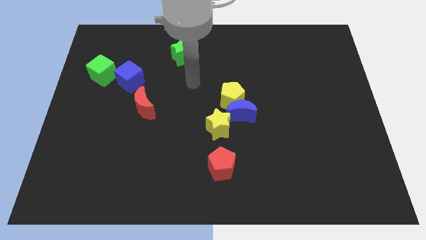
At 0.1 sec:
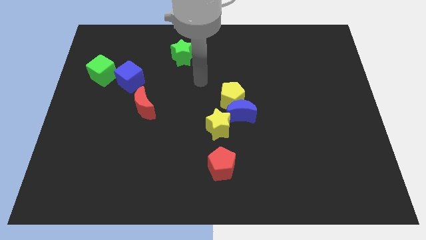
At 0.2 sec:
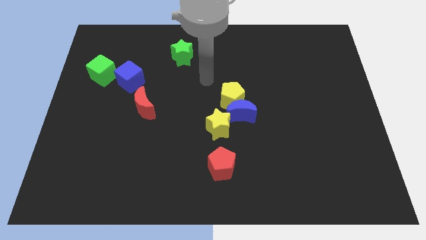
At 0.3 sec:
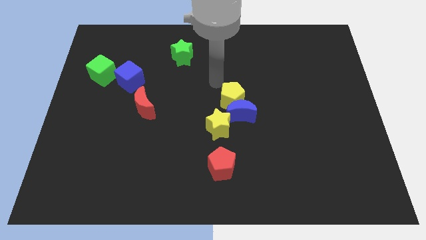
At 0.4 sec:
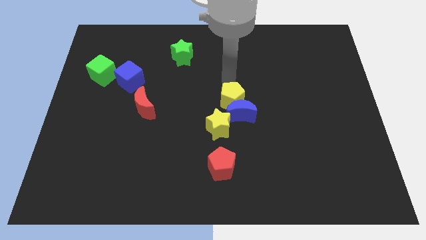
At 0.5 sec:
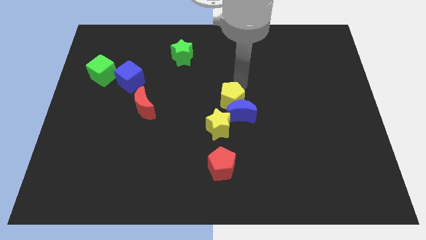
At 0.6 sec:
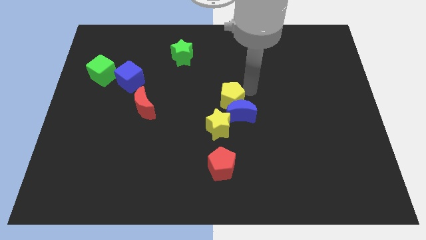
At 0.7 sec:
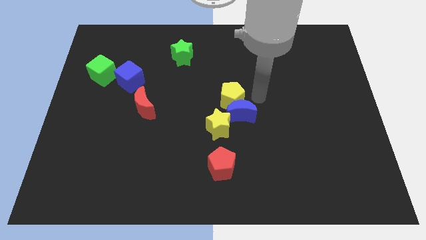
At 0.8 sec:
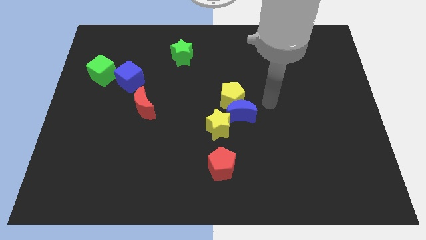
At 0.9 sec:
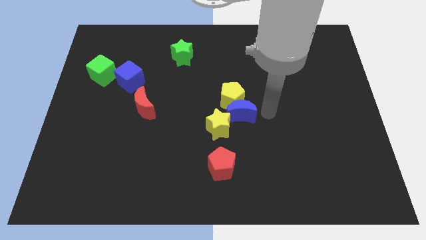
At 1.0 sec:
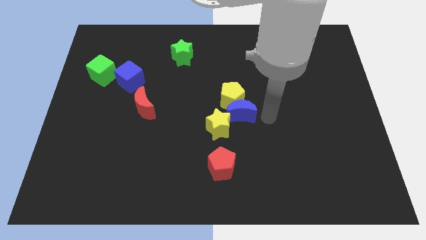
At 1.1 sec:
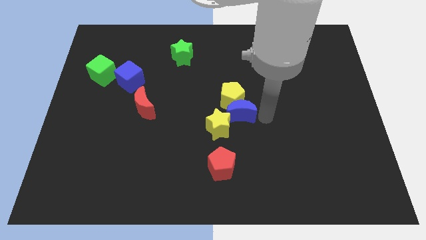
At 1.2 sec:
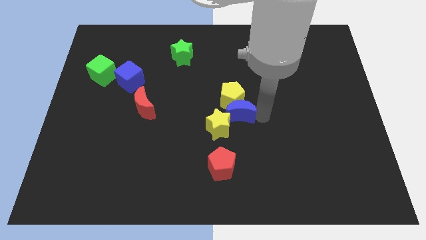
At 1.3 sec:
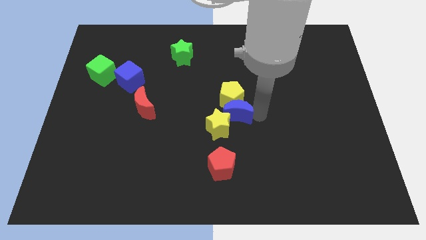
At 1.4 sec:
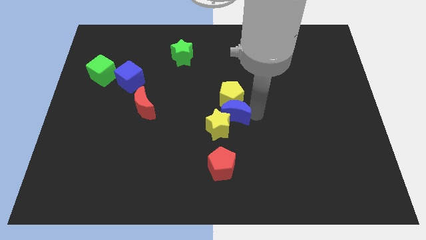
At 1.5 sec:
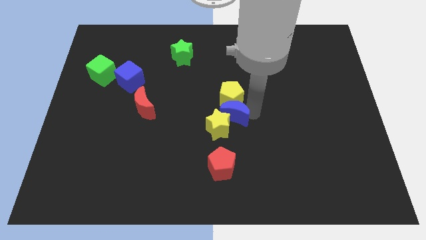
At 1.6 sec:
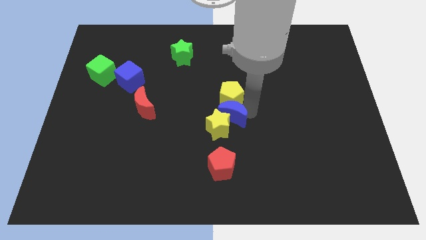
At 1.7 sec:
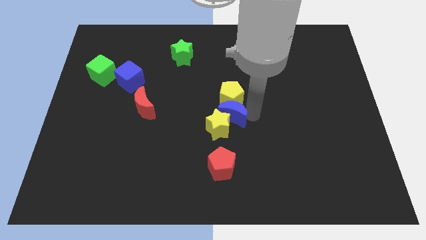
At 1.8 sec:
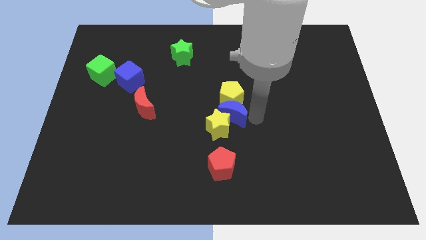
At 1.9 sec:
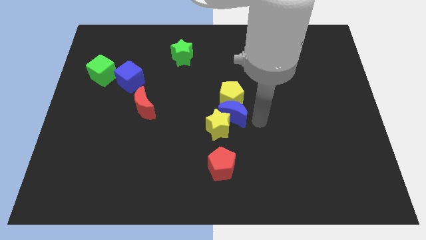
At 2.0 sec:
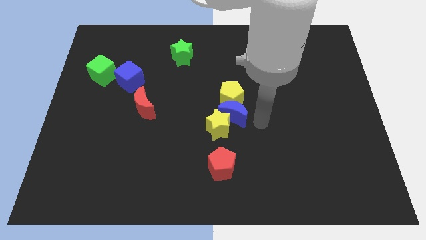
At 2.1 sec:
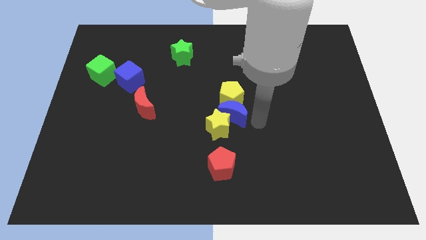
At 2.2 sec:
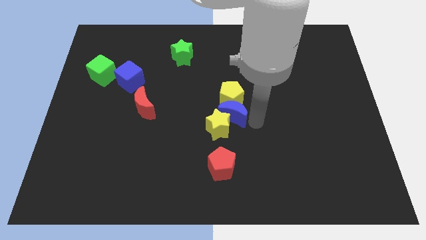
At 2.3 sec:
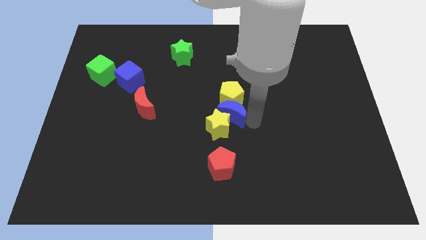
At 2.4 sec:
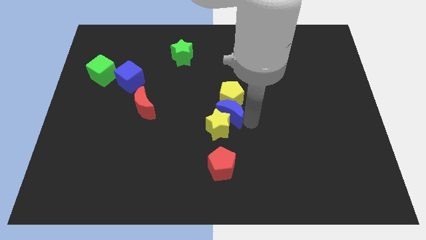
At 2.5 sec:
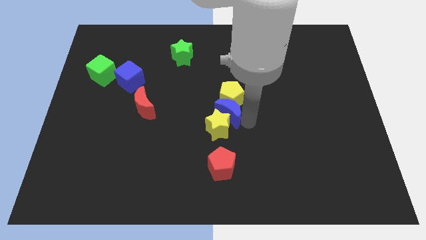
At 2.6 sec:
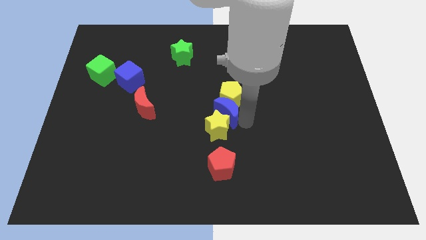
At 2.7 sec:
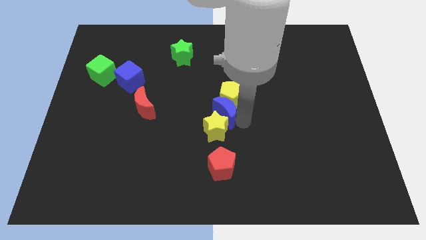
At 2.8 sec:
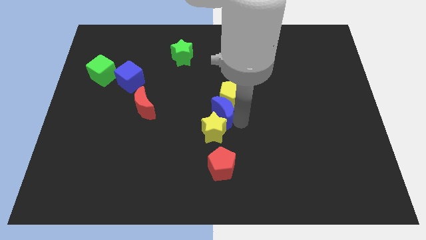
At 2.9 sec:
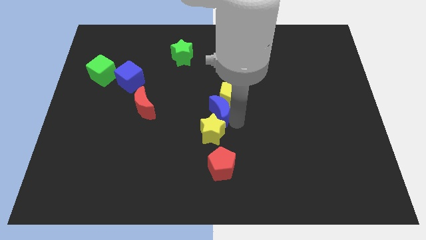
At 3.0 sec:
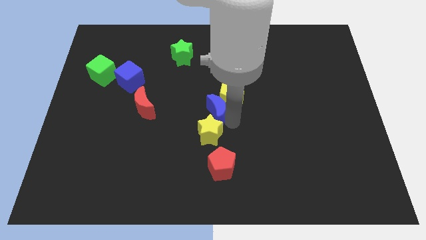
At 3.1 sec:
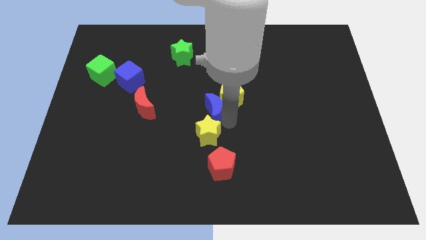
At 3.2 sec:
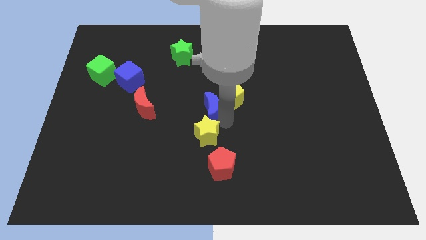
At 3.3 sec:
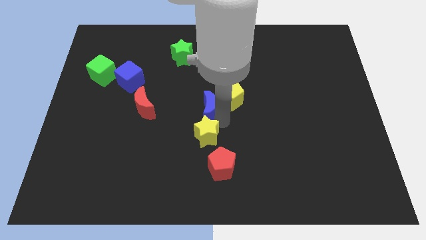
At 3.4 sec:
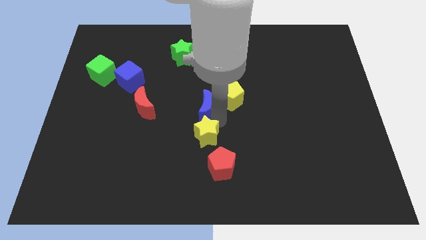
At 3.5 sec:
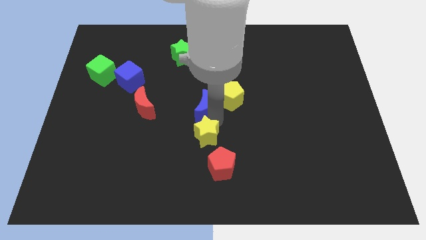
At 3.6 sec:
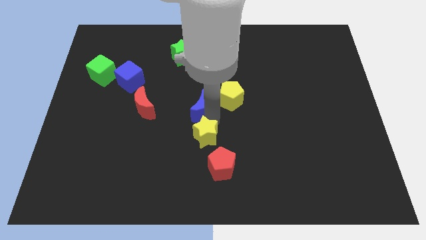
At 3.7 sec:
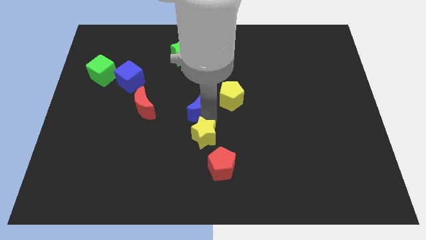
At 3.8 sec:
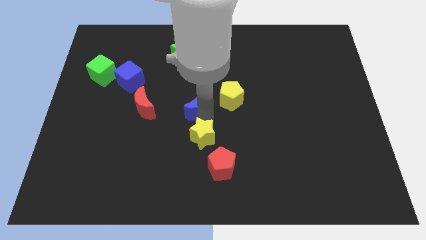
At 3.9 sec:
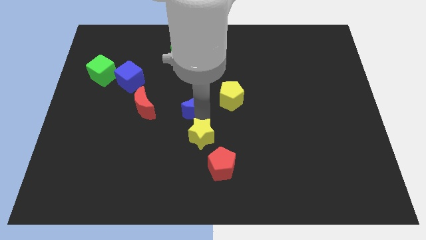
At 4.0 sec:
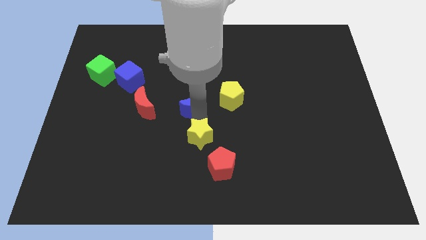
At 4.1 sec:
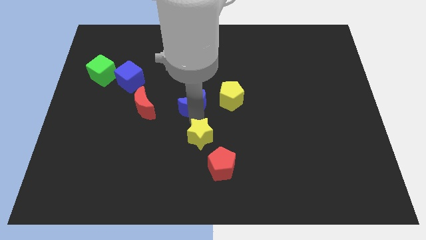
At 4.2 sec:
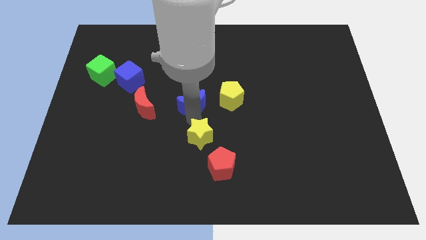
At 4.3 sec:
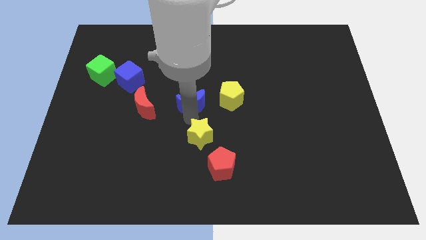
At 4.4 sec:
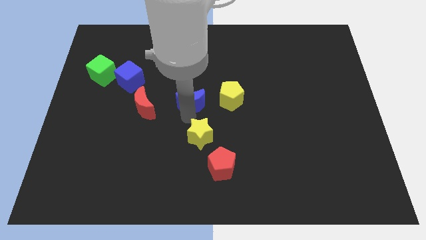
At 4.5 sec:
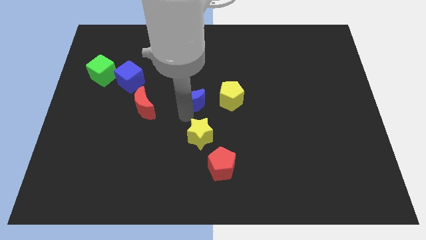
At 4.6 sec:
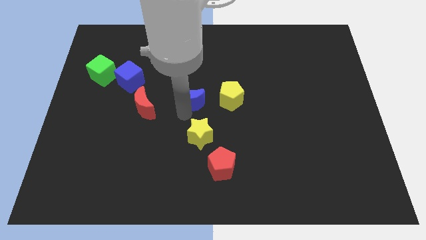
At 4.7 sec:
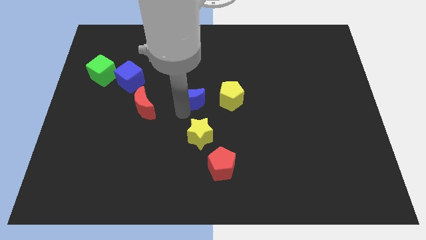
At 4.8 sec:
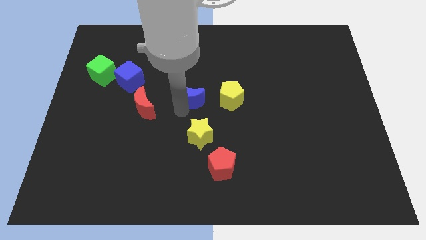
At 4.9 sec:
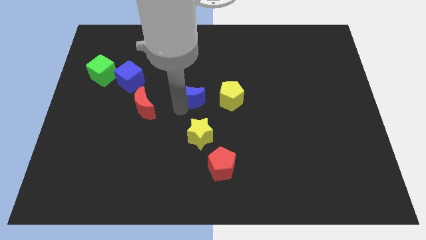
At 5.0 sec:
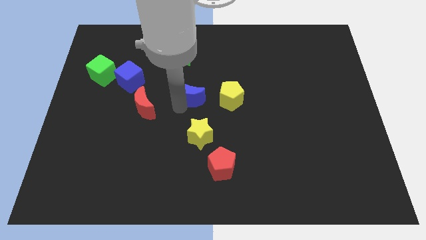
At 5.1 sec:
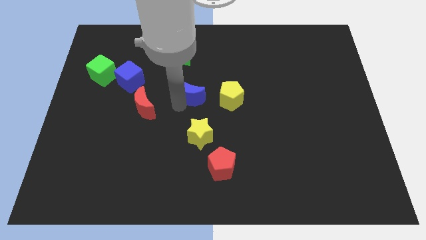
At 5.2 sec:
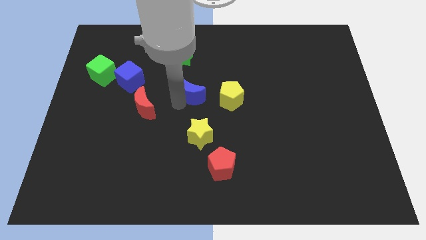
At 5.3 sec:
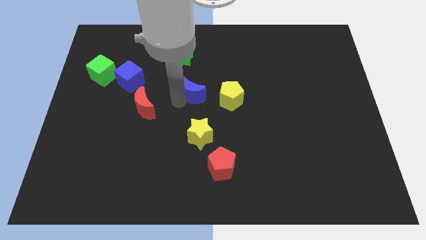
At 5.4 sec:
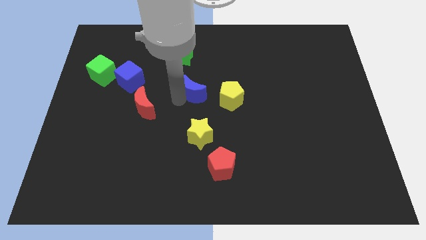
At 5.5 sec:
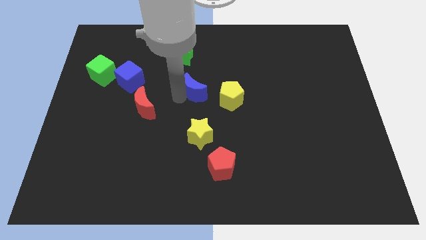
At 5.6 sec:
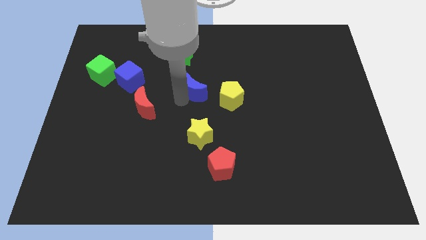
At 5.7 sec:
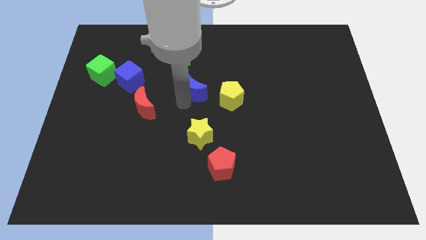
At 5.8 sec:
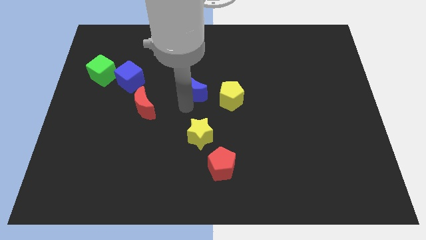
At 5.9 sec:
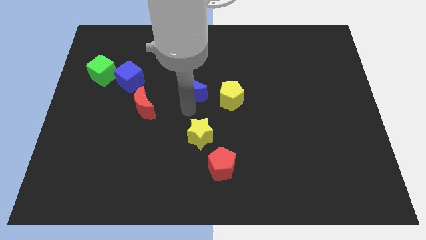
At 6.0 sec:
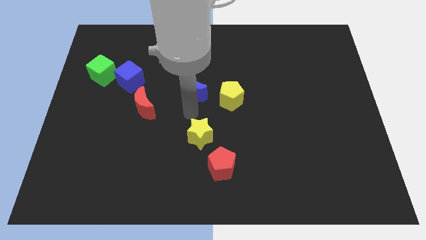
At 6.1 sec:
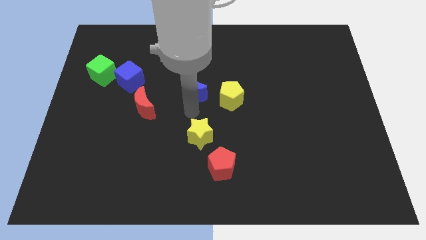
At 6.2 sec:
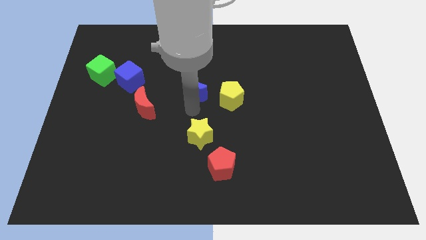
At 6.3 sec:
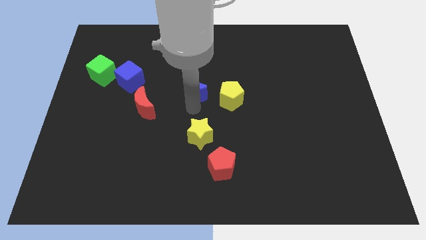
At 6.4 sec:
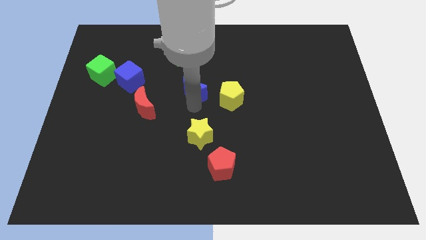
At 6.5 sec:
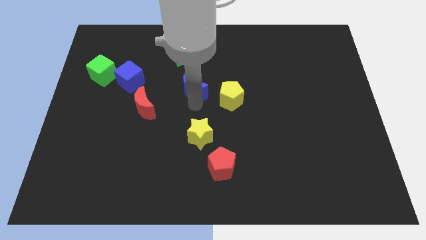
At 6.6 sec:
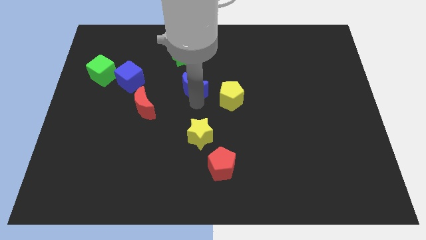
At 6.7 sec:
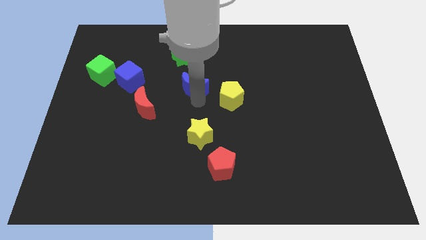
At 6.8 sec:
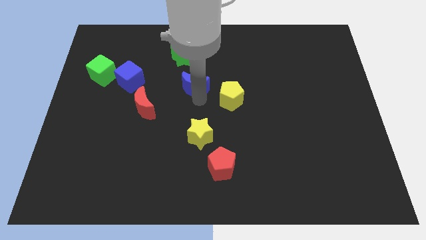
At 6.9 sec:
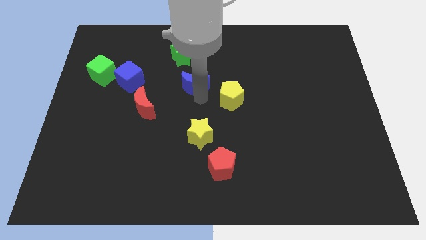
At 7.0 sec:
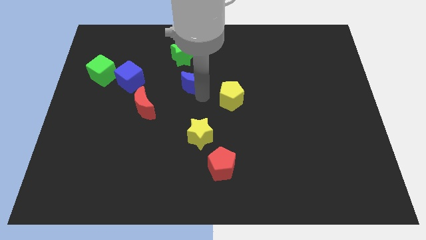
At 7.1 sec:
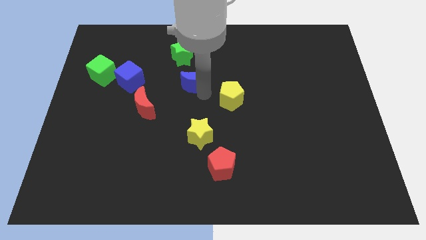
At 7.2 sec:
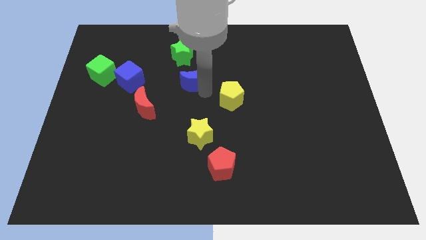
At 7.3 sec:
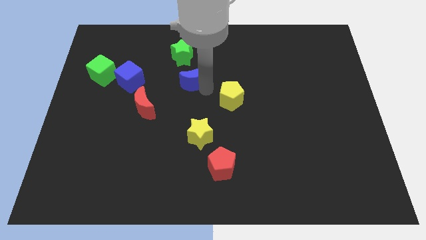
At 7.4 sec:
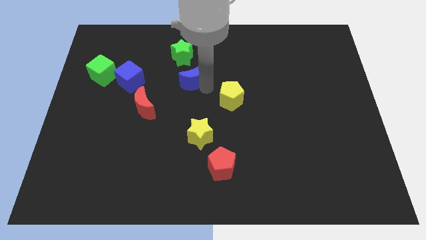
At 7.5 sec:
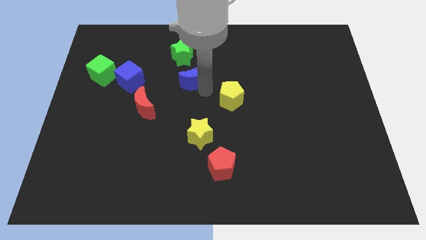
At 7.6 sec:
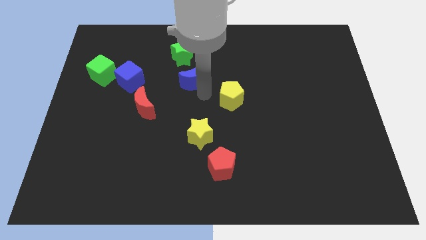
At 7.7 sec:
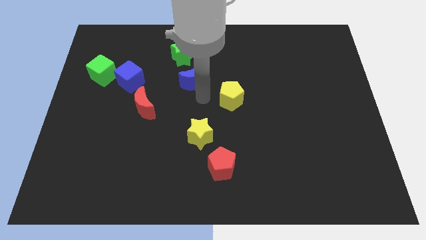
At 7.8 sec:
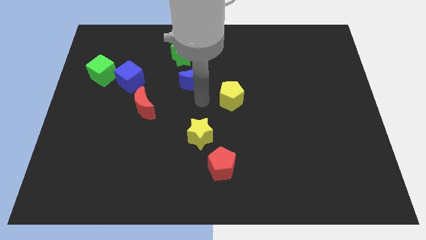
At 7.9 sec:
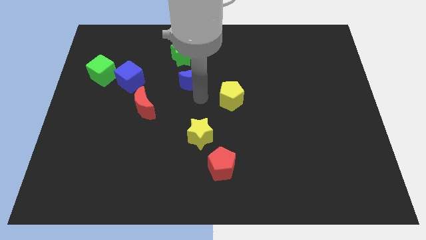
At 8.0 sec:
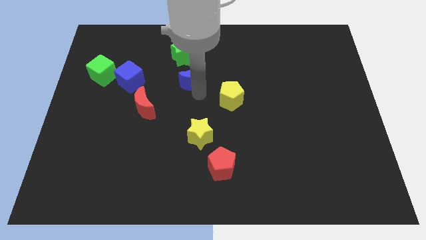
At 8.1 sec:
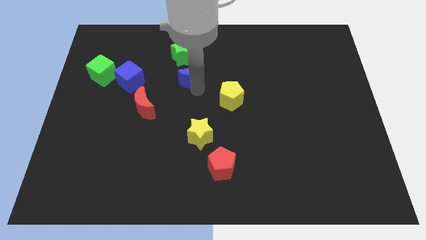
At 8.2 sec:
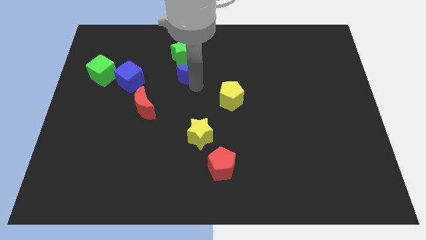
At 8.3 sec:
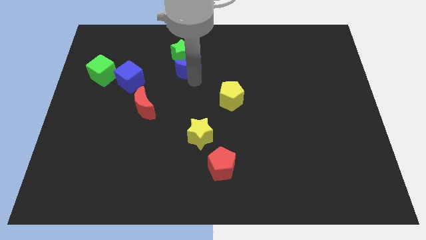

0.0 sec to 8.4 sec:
move the blue moon towards the green star
